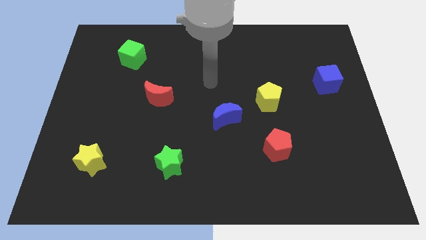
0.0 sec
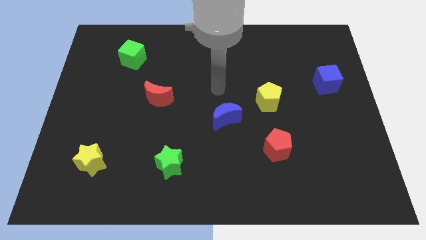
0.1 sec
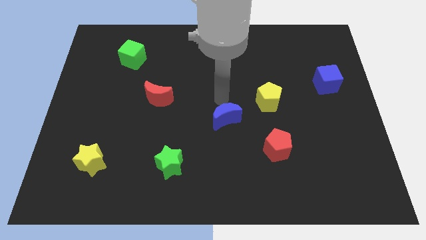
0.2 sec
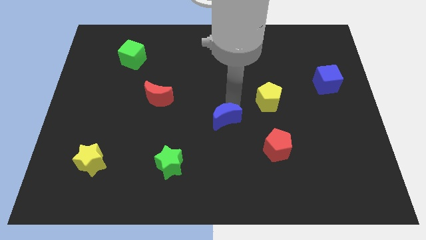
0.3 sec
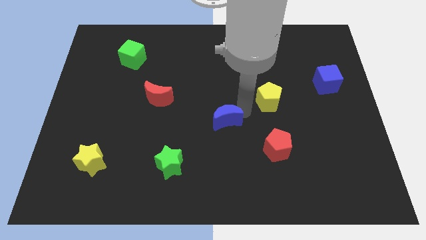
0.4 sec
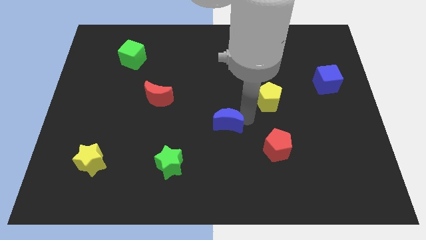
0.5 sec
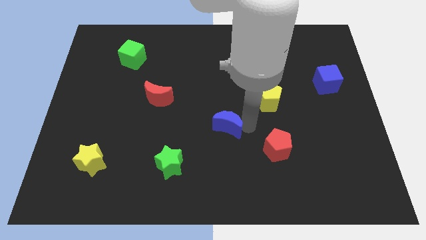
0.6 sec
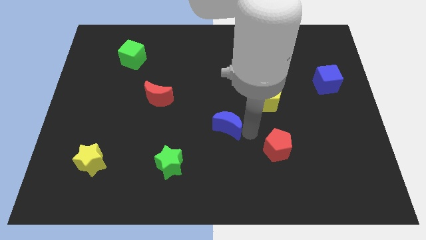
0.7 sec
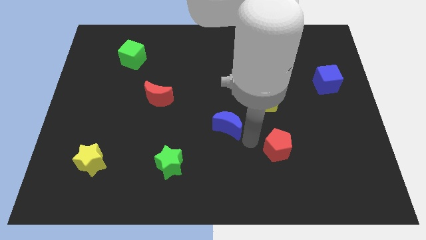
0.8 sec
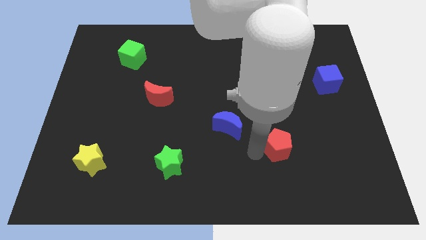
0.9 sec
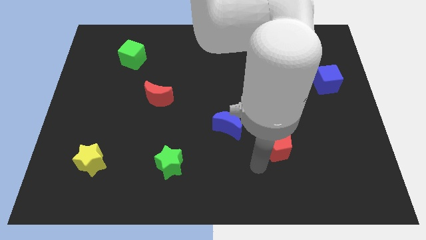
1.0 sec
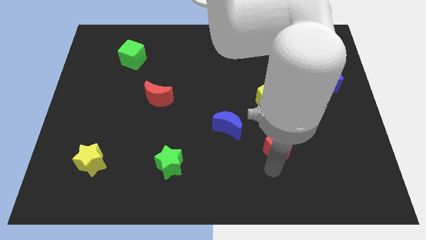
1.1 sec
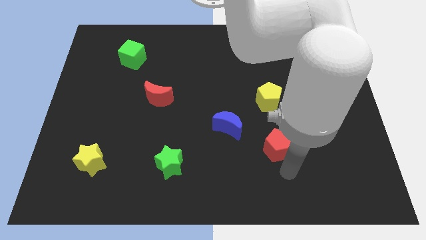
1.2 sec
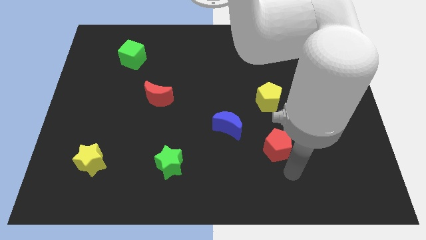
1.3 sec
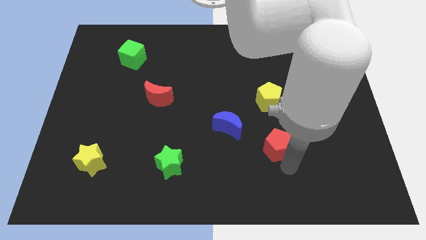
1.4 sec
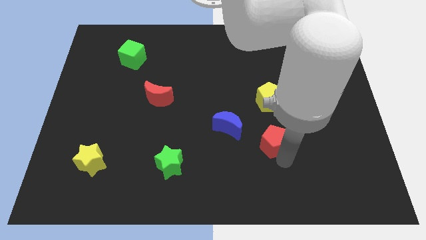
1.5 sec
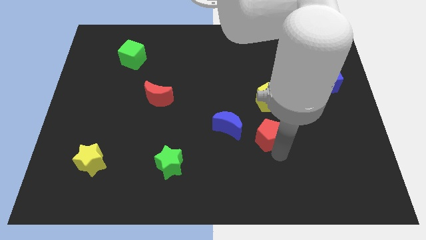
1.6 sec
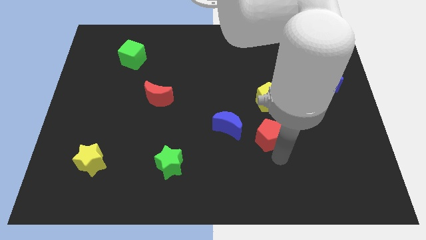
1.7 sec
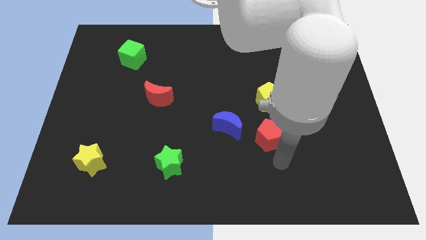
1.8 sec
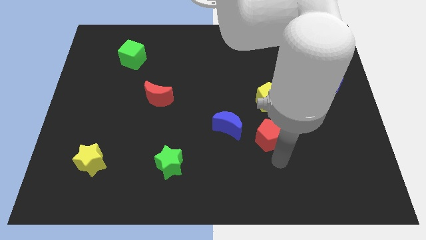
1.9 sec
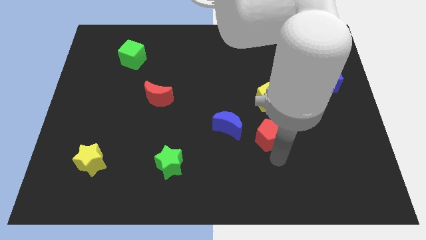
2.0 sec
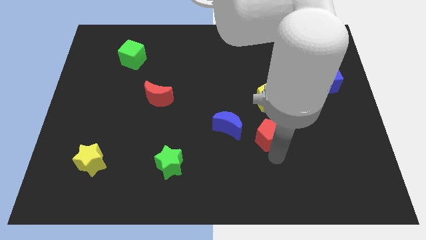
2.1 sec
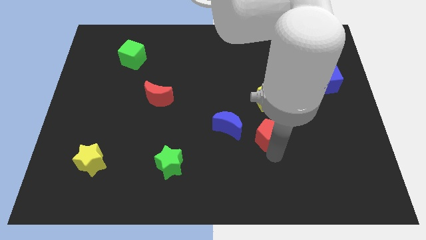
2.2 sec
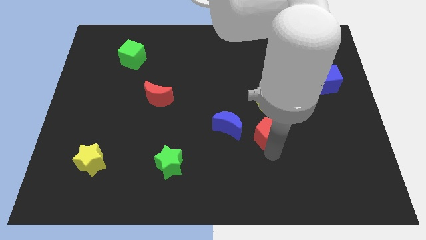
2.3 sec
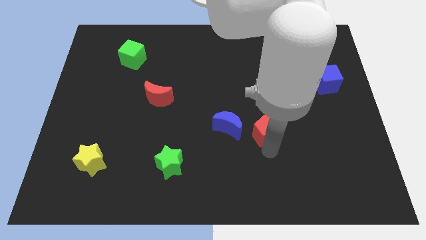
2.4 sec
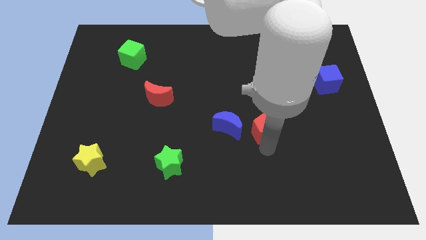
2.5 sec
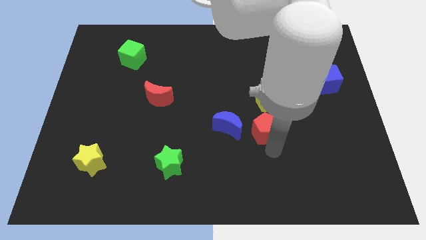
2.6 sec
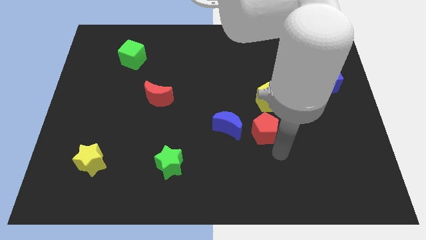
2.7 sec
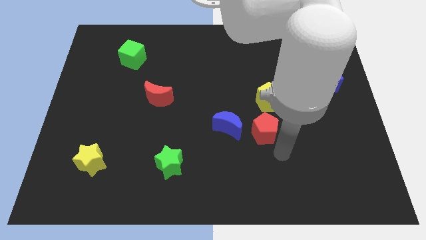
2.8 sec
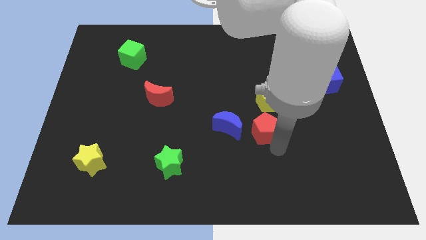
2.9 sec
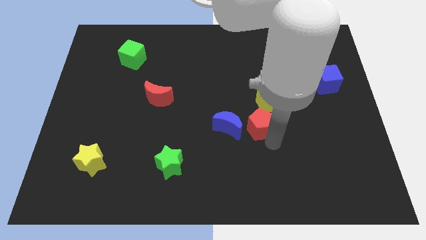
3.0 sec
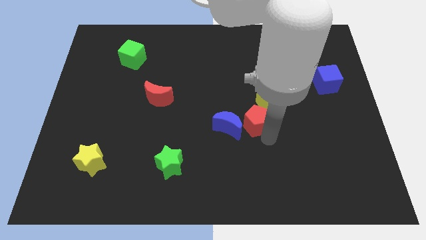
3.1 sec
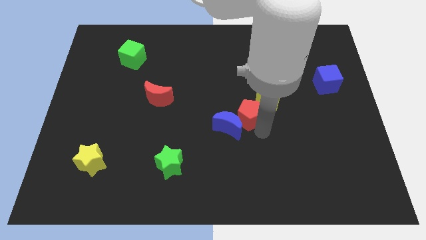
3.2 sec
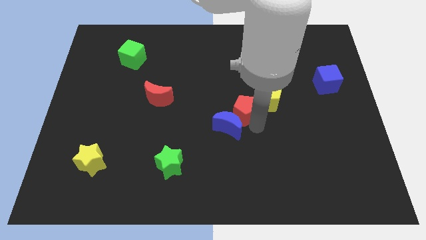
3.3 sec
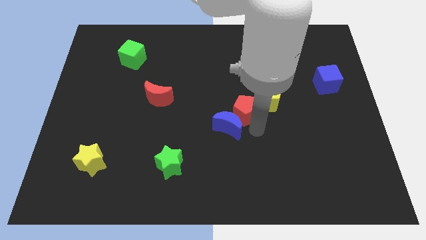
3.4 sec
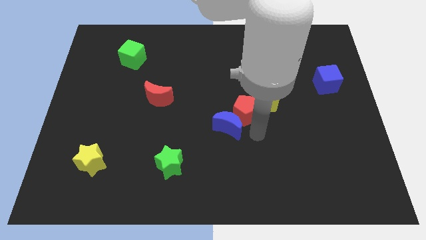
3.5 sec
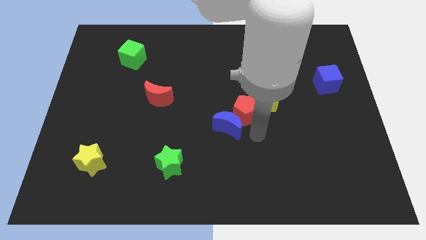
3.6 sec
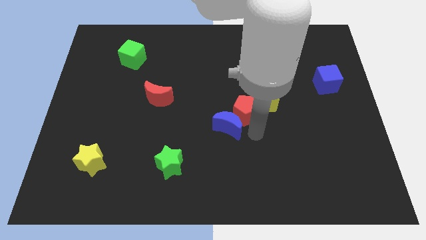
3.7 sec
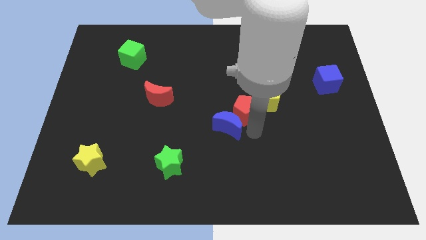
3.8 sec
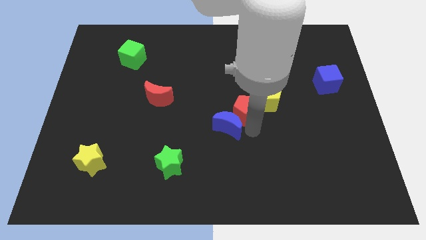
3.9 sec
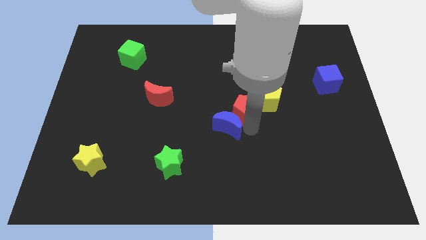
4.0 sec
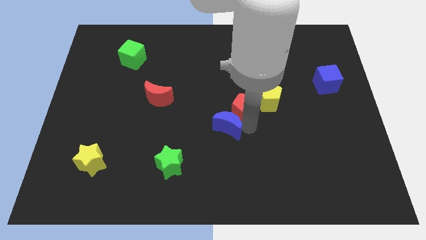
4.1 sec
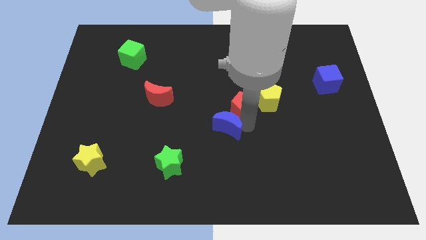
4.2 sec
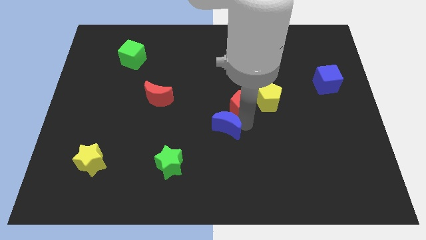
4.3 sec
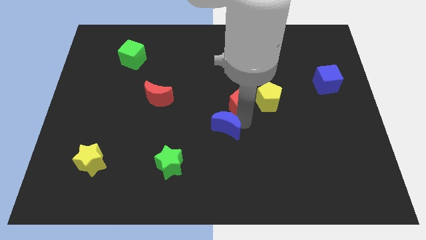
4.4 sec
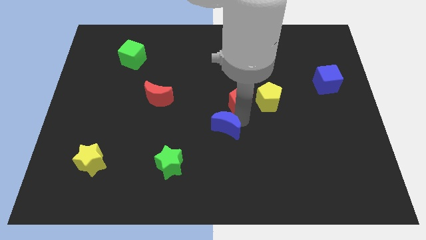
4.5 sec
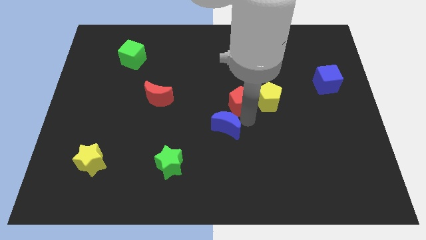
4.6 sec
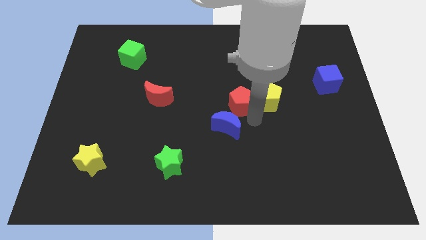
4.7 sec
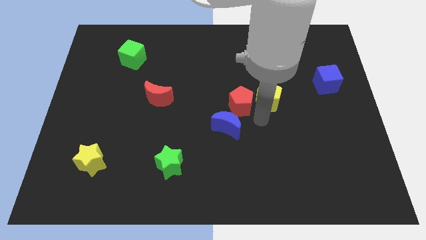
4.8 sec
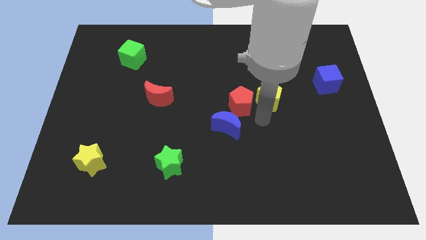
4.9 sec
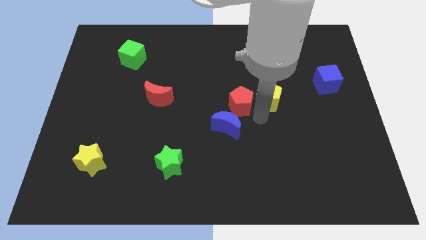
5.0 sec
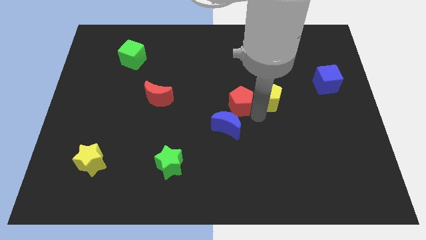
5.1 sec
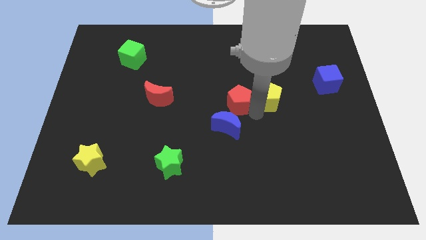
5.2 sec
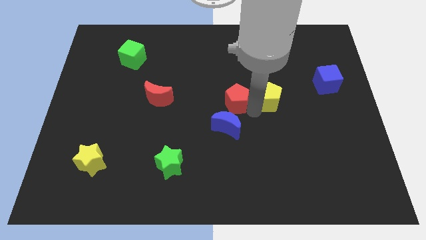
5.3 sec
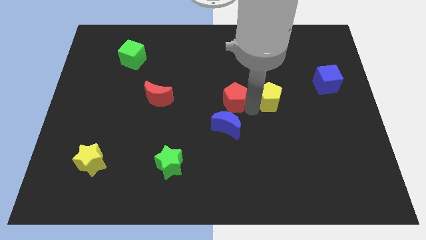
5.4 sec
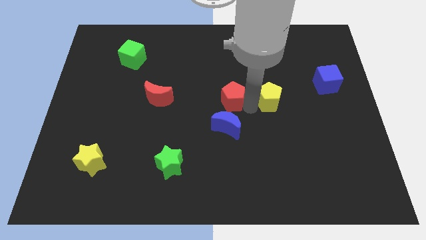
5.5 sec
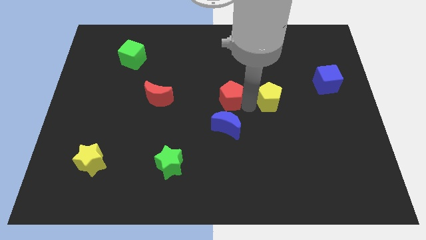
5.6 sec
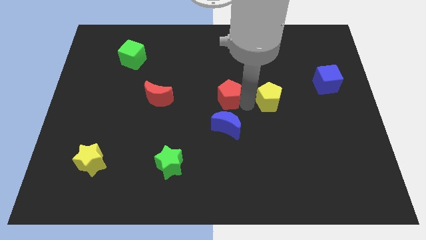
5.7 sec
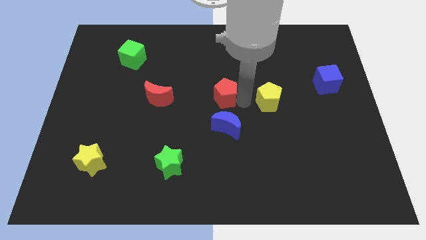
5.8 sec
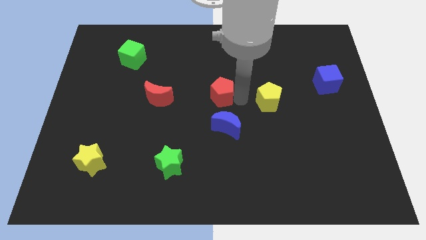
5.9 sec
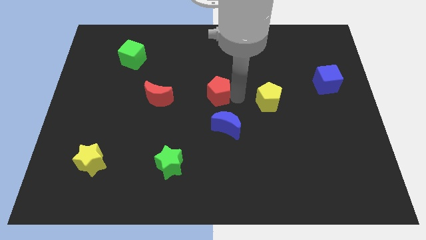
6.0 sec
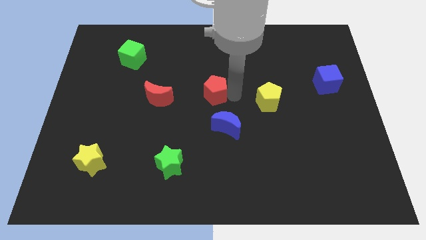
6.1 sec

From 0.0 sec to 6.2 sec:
push the red pentagon up and then to the left

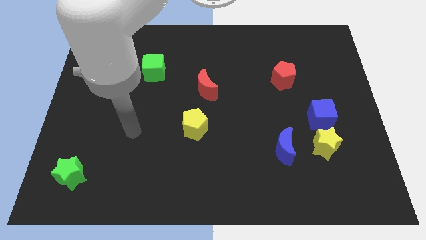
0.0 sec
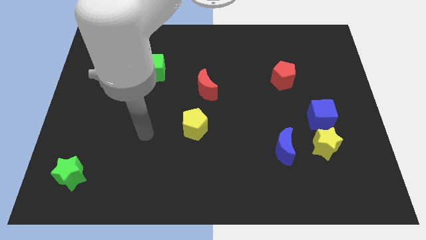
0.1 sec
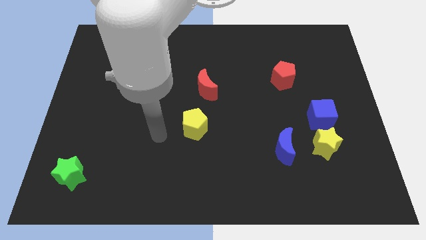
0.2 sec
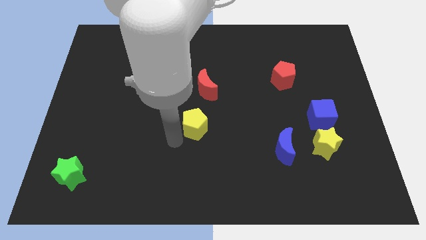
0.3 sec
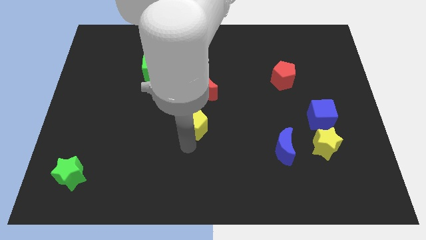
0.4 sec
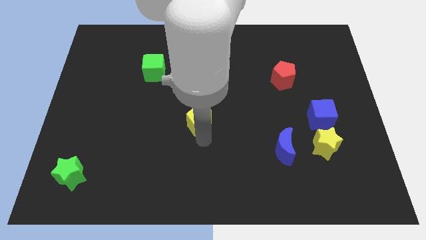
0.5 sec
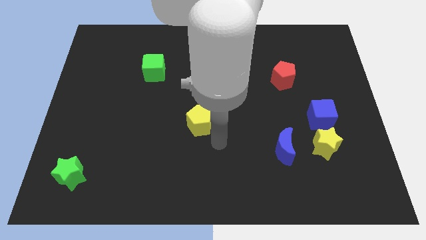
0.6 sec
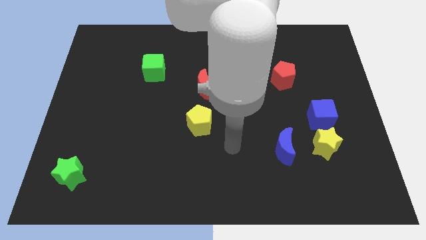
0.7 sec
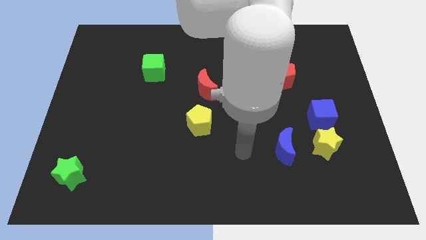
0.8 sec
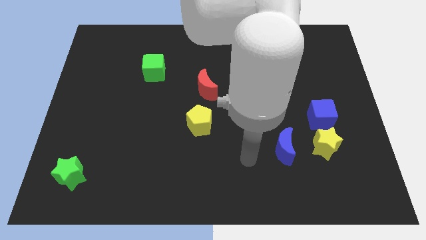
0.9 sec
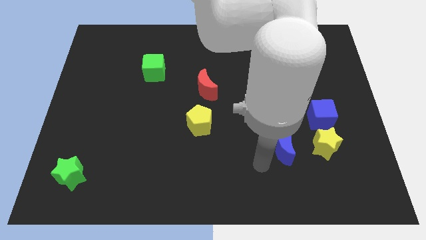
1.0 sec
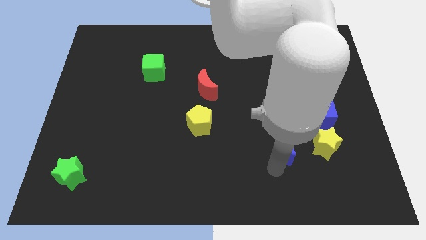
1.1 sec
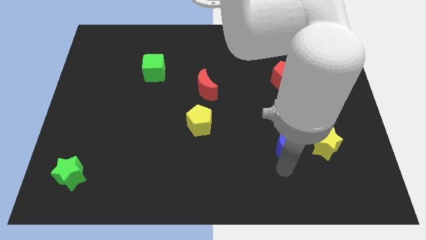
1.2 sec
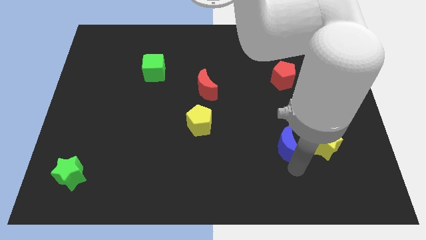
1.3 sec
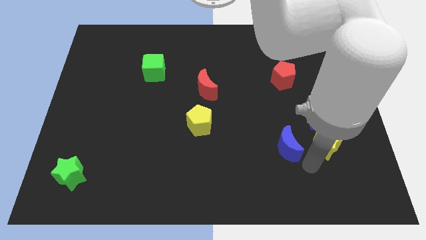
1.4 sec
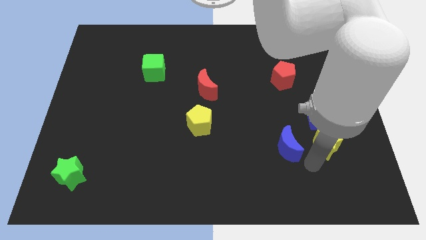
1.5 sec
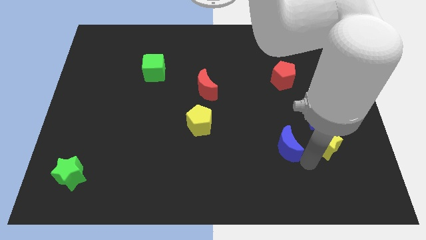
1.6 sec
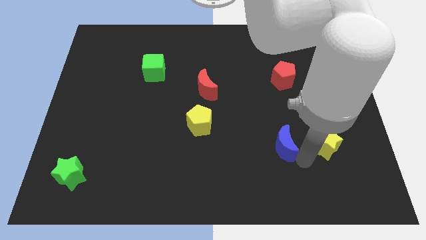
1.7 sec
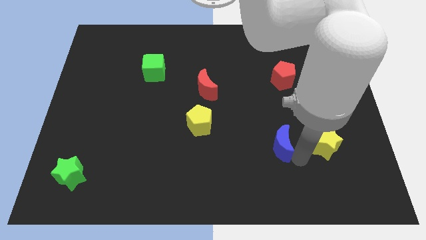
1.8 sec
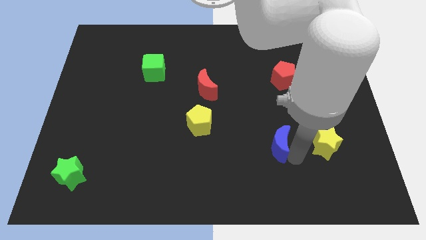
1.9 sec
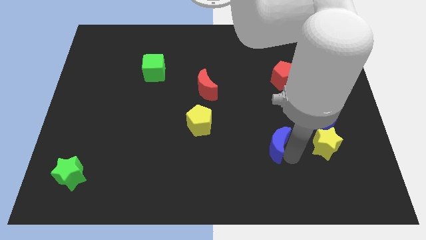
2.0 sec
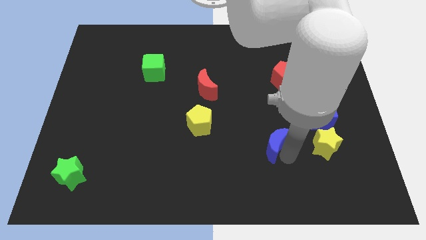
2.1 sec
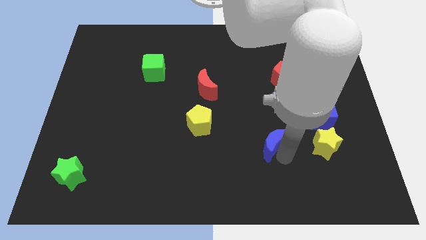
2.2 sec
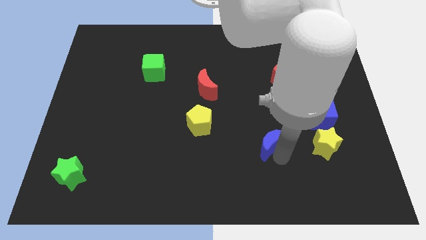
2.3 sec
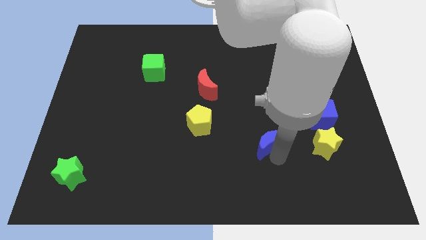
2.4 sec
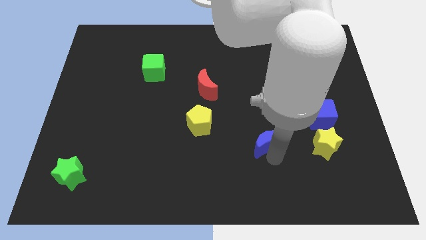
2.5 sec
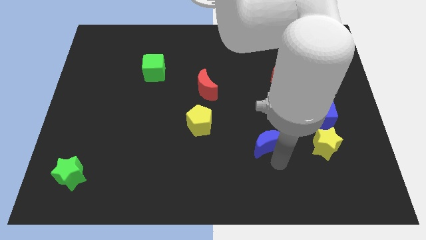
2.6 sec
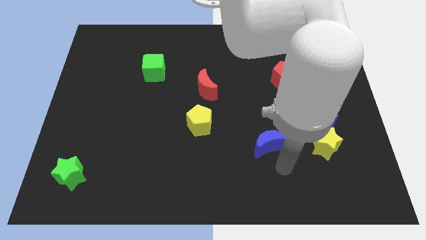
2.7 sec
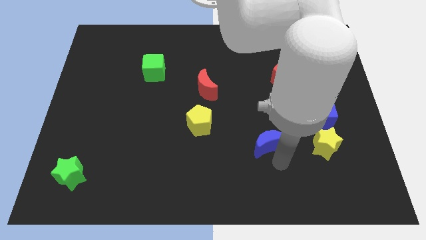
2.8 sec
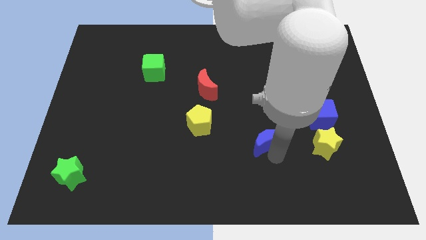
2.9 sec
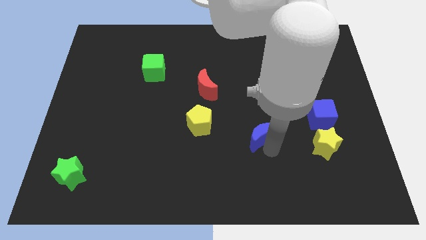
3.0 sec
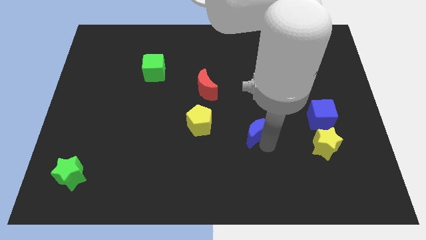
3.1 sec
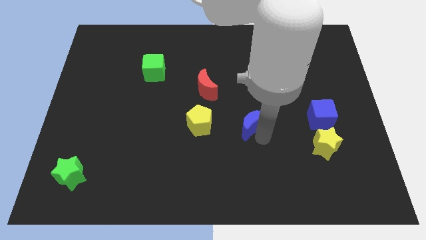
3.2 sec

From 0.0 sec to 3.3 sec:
slightly slide the blue moon up and then left
